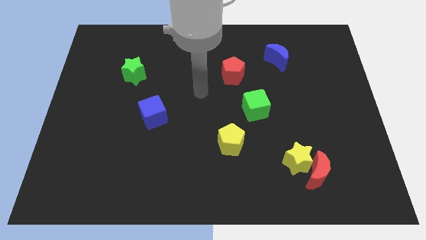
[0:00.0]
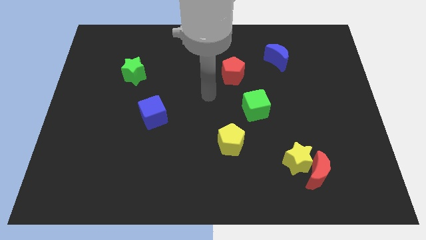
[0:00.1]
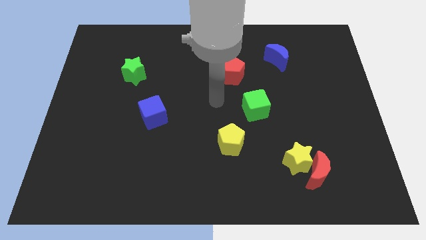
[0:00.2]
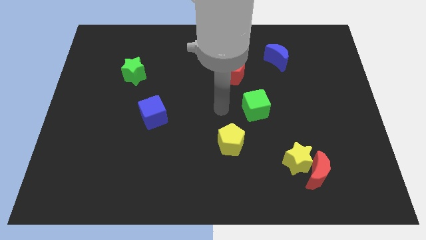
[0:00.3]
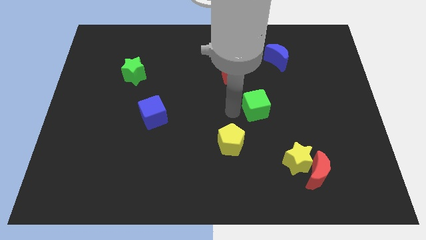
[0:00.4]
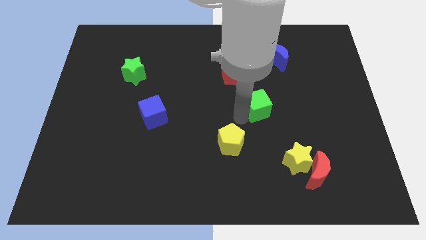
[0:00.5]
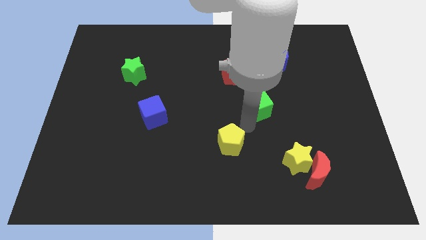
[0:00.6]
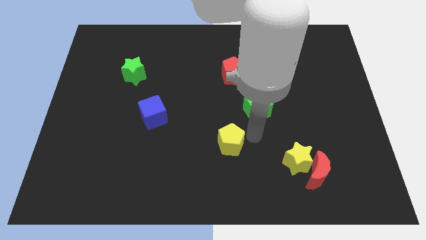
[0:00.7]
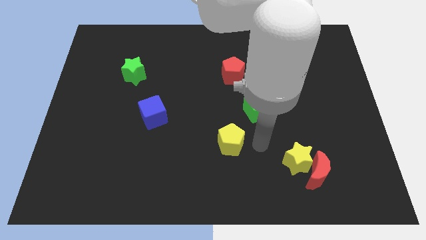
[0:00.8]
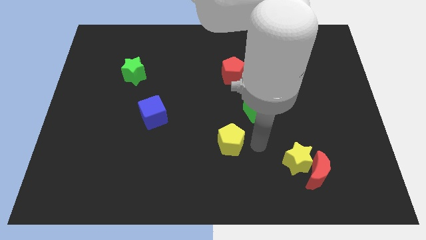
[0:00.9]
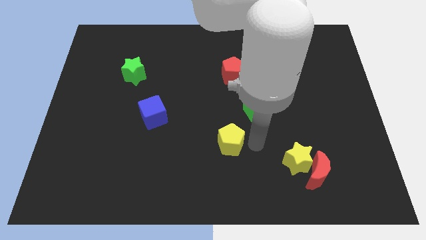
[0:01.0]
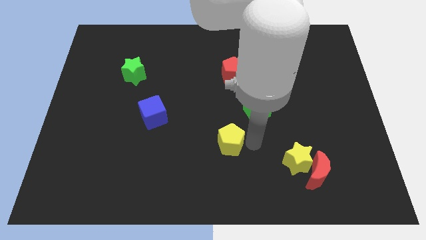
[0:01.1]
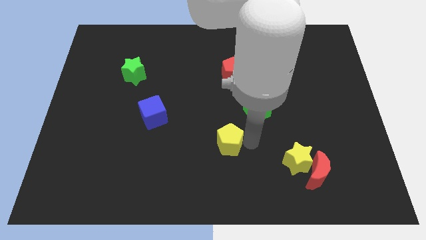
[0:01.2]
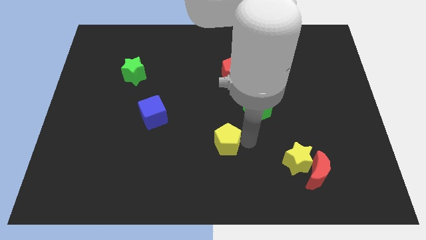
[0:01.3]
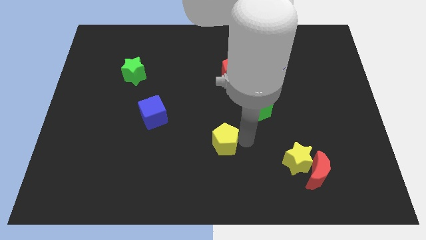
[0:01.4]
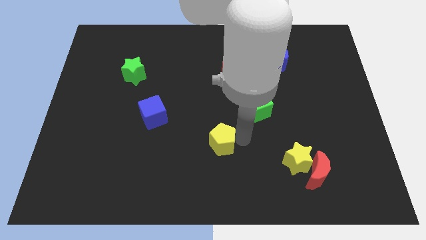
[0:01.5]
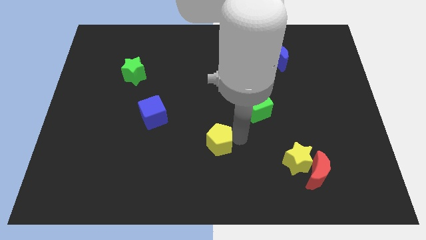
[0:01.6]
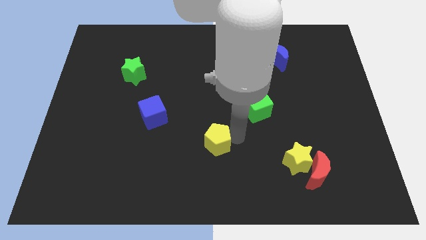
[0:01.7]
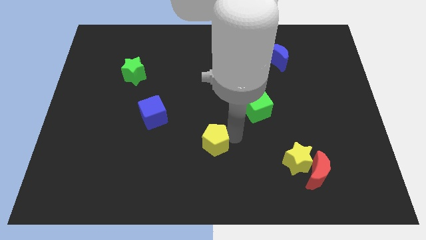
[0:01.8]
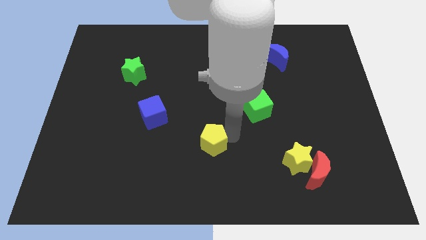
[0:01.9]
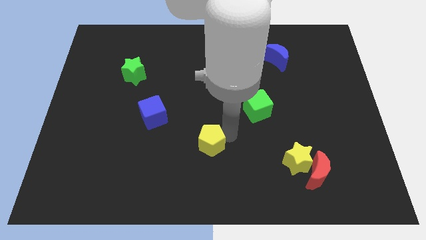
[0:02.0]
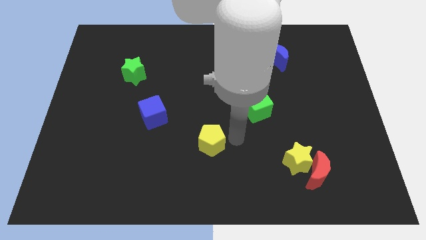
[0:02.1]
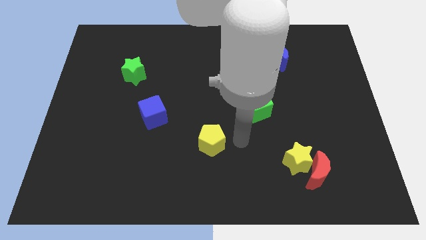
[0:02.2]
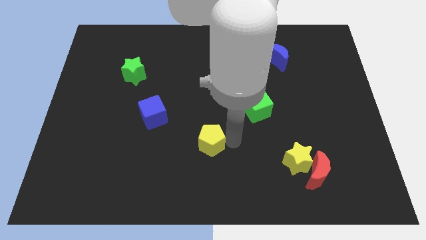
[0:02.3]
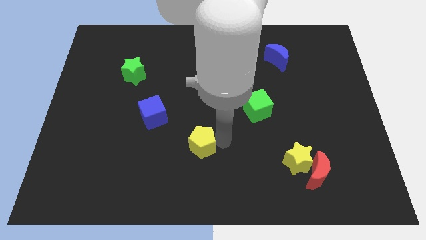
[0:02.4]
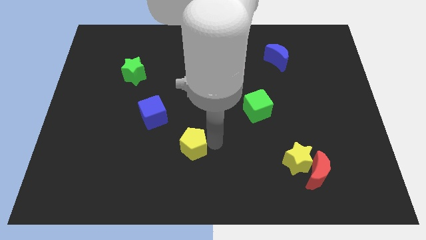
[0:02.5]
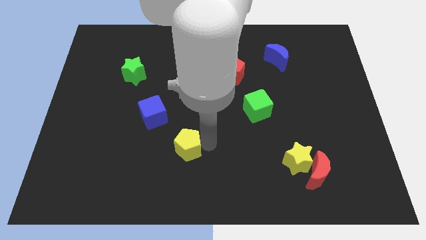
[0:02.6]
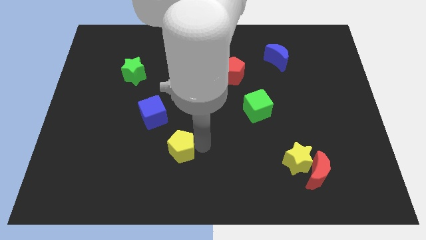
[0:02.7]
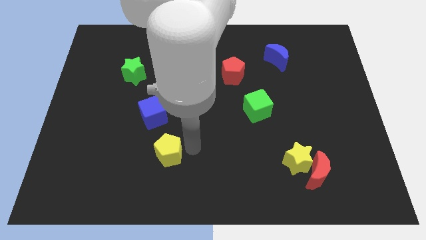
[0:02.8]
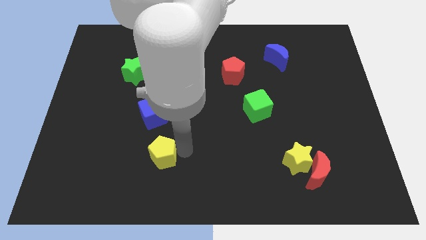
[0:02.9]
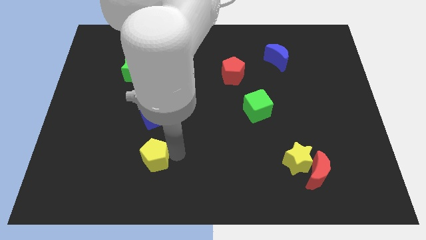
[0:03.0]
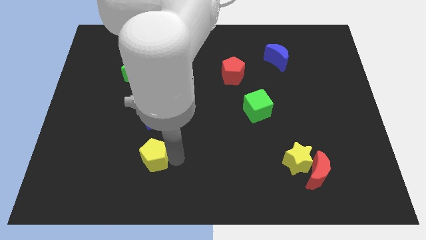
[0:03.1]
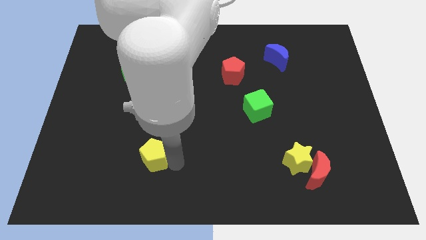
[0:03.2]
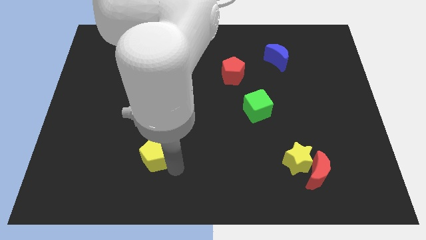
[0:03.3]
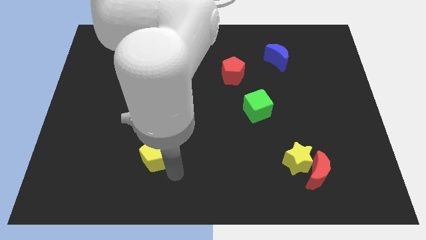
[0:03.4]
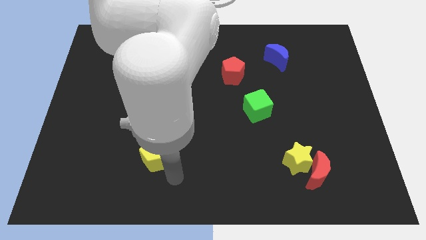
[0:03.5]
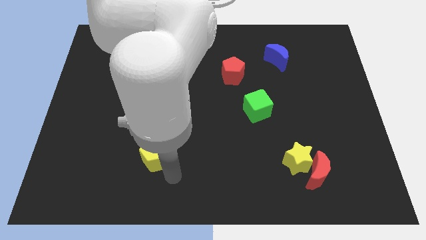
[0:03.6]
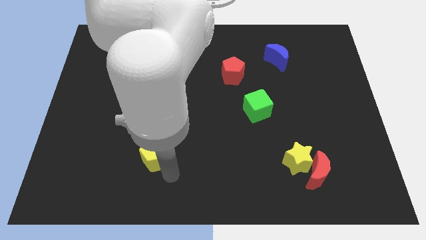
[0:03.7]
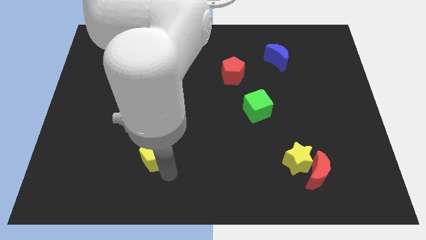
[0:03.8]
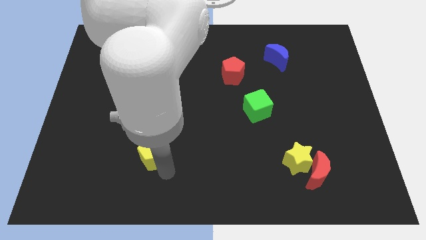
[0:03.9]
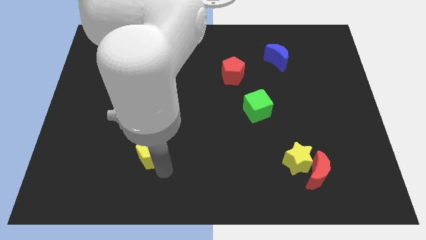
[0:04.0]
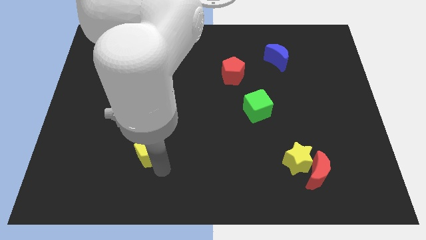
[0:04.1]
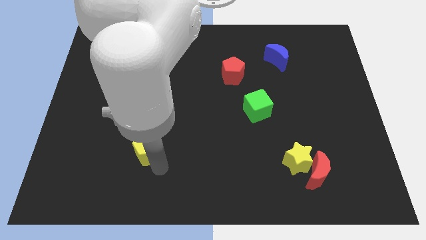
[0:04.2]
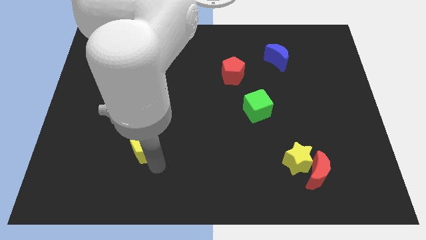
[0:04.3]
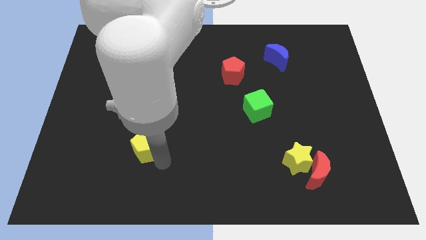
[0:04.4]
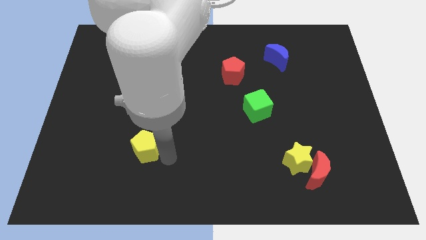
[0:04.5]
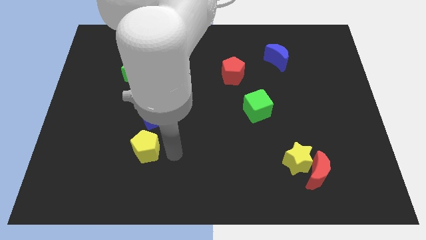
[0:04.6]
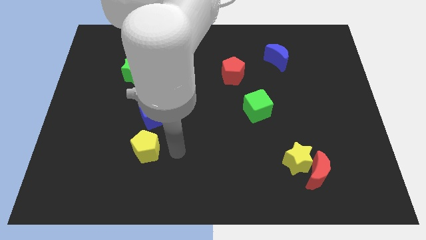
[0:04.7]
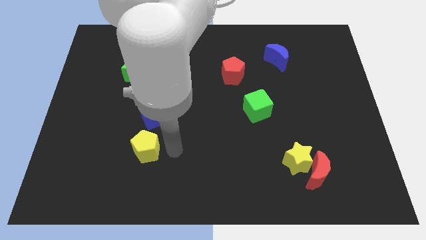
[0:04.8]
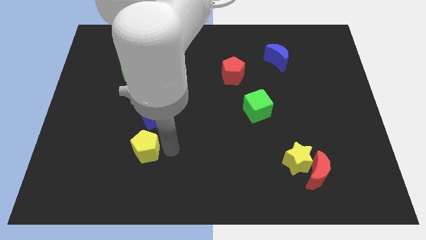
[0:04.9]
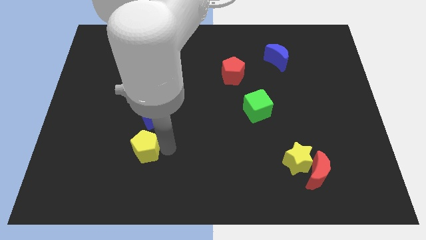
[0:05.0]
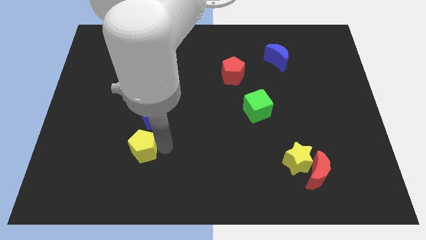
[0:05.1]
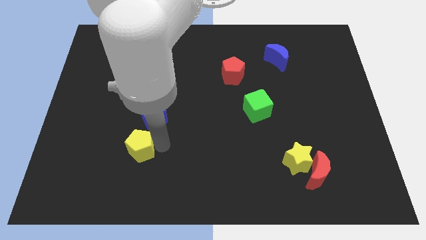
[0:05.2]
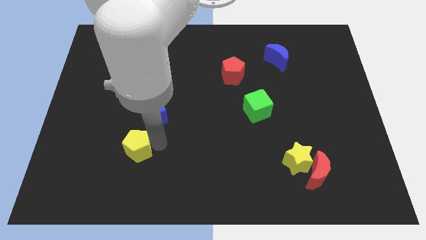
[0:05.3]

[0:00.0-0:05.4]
move the yellow pentagon left

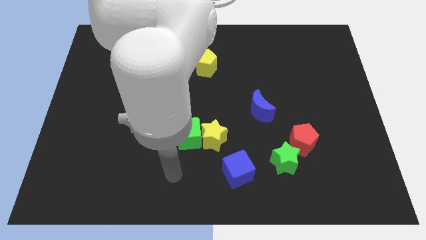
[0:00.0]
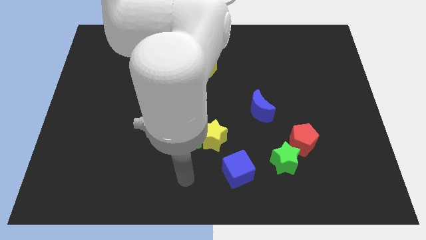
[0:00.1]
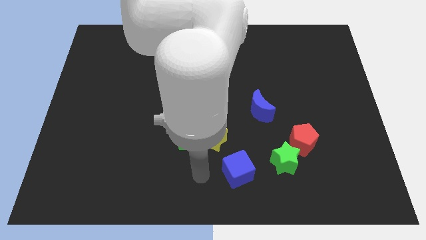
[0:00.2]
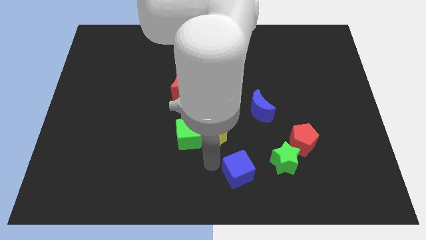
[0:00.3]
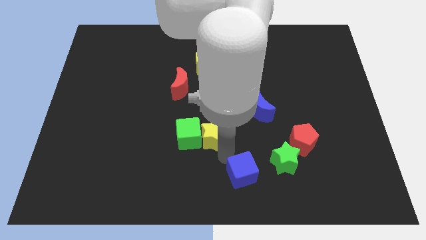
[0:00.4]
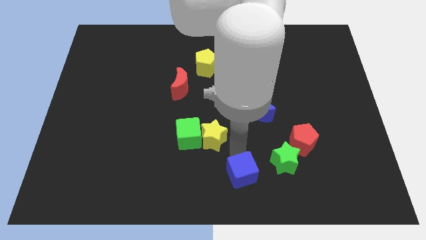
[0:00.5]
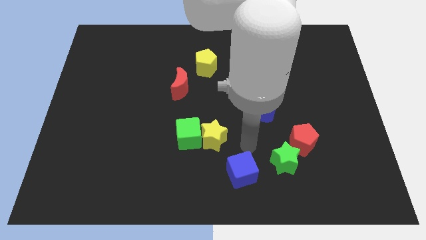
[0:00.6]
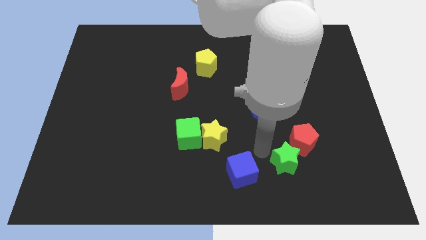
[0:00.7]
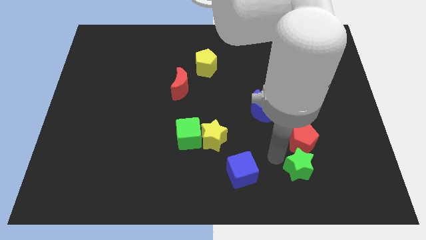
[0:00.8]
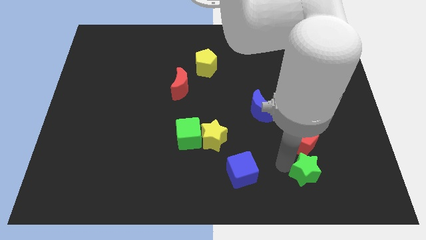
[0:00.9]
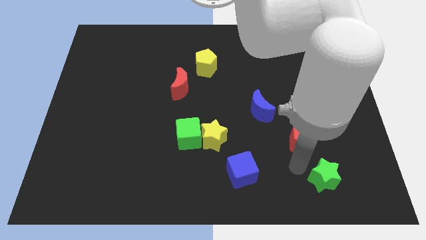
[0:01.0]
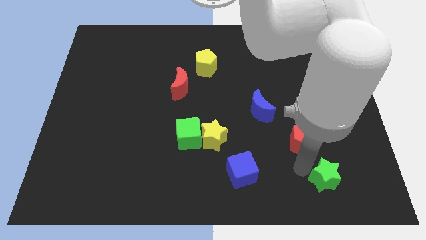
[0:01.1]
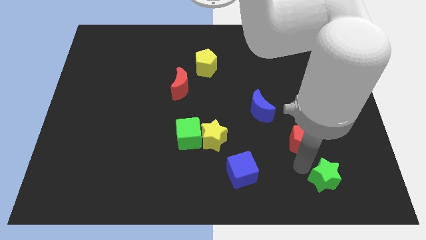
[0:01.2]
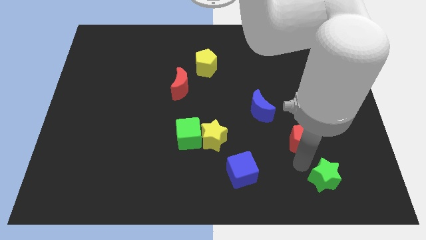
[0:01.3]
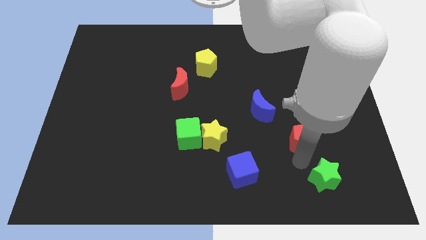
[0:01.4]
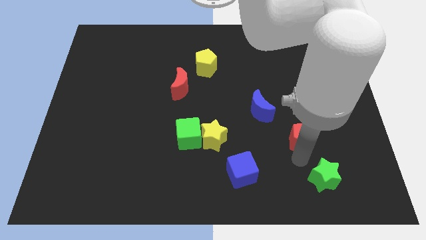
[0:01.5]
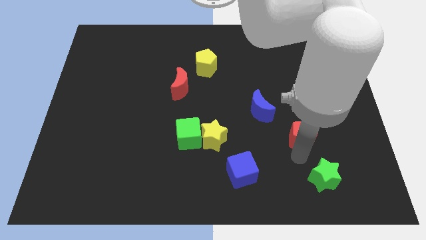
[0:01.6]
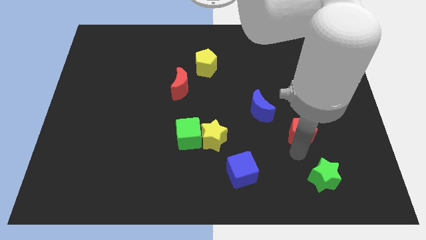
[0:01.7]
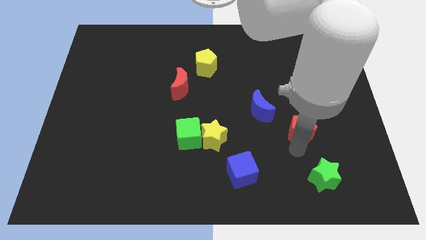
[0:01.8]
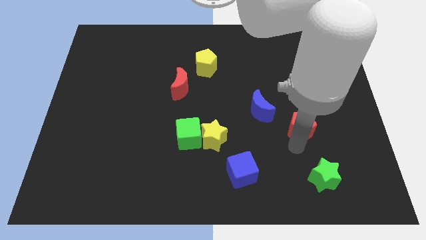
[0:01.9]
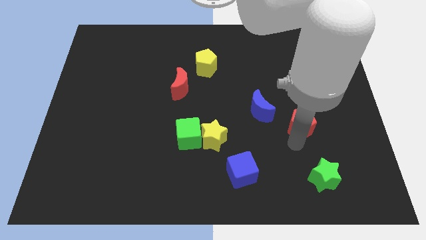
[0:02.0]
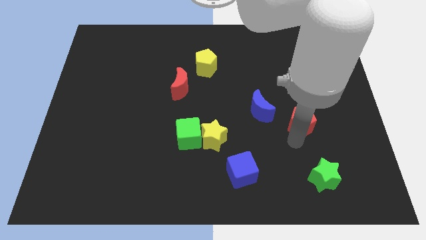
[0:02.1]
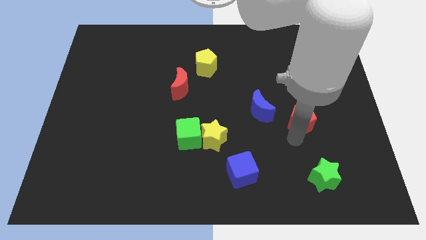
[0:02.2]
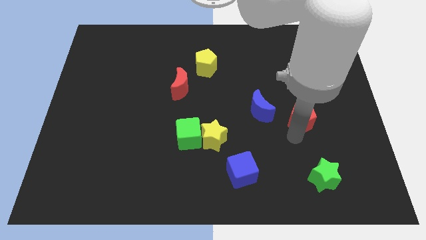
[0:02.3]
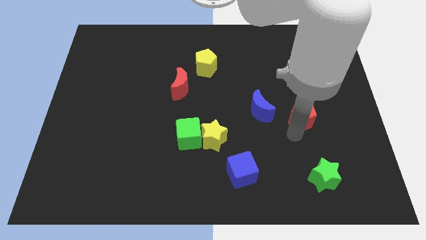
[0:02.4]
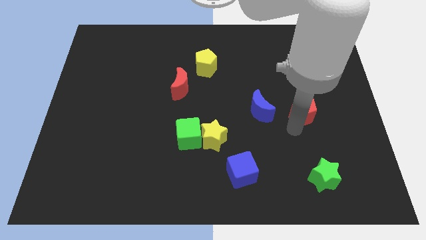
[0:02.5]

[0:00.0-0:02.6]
slightly slide the red pentagon up
